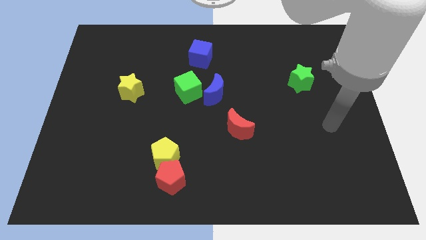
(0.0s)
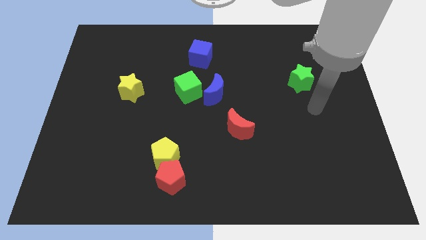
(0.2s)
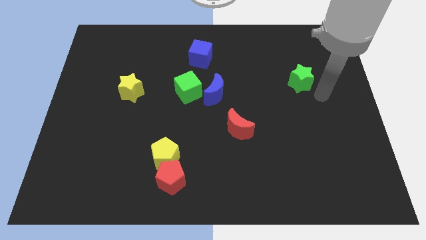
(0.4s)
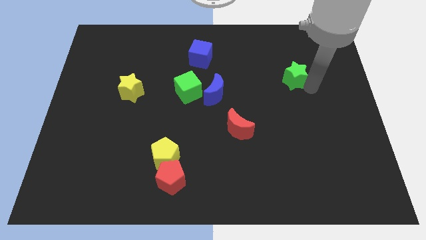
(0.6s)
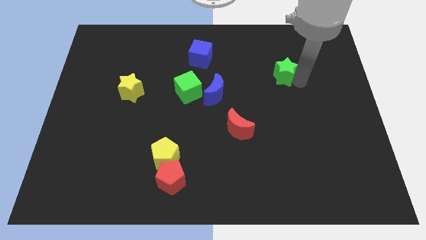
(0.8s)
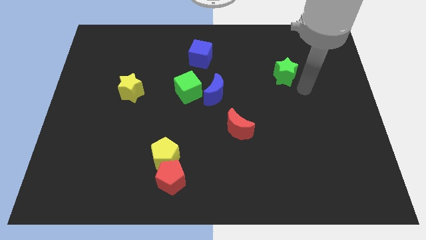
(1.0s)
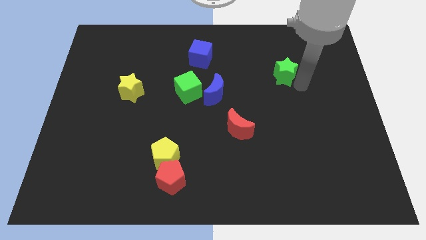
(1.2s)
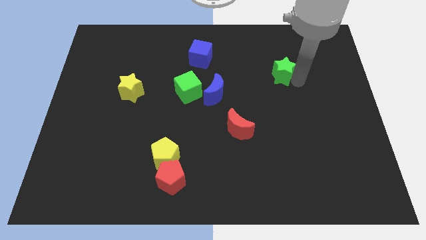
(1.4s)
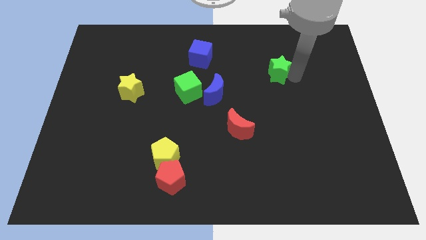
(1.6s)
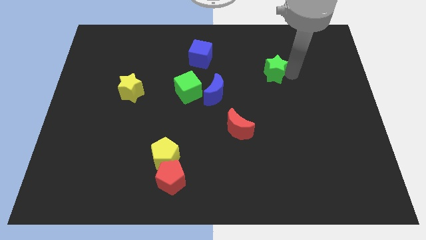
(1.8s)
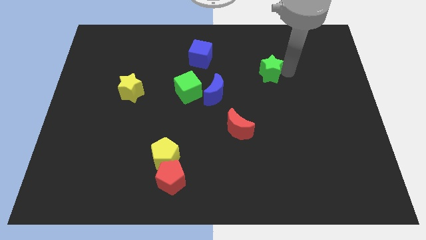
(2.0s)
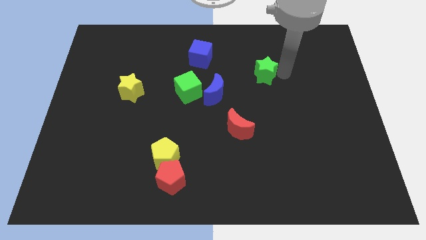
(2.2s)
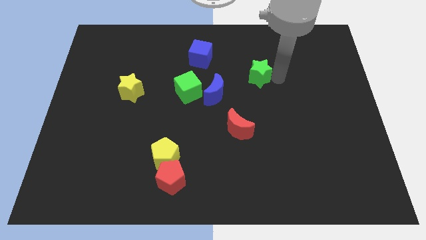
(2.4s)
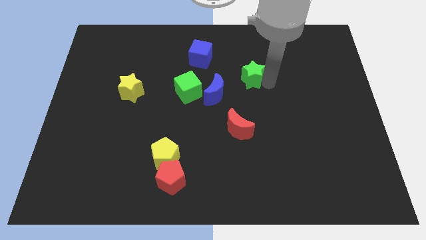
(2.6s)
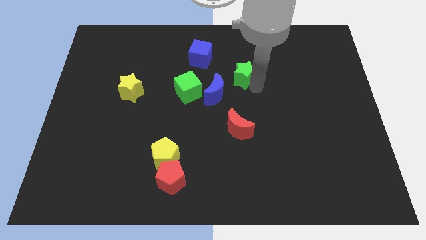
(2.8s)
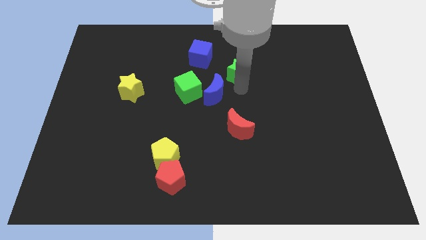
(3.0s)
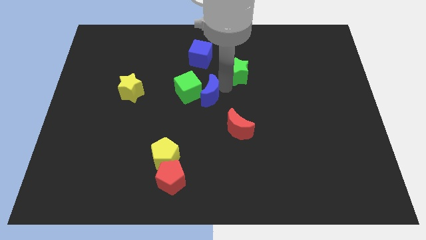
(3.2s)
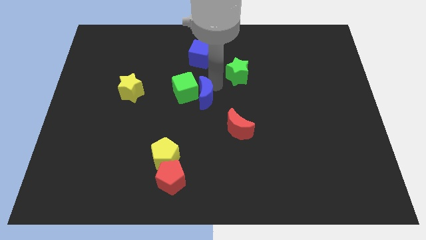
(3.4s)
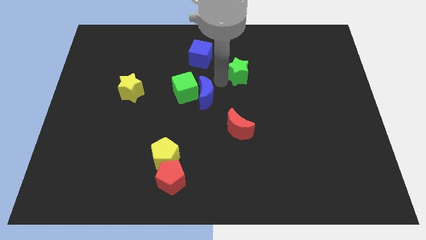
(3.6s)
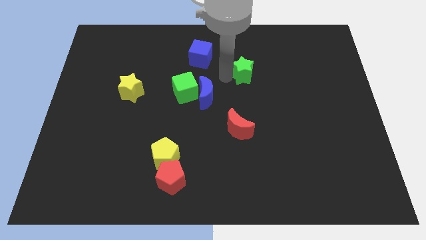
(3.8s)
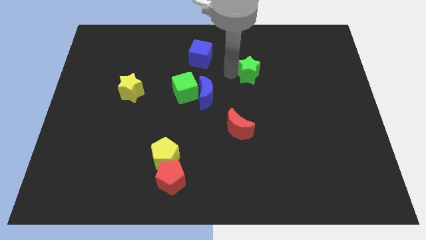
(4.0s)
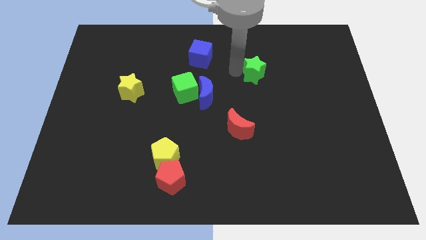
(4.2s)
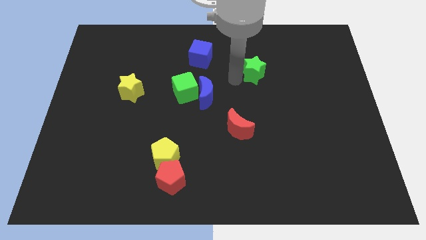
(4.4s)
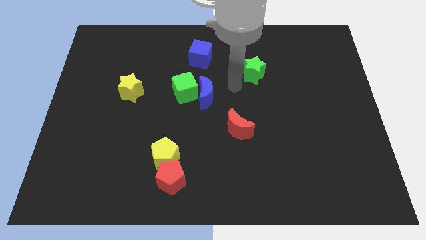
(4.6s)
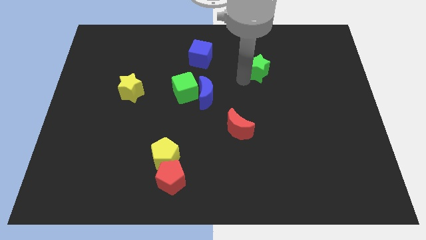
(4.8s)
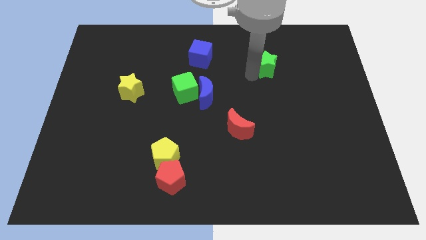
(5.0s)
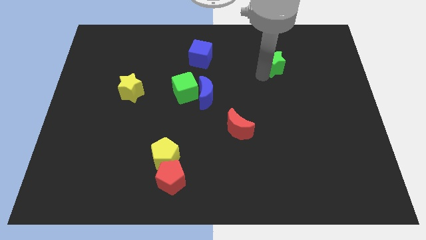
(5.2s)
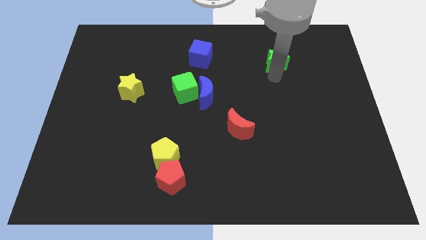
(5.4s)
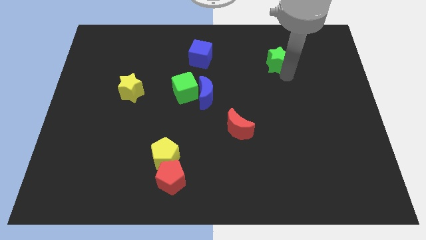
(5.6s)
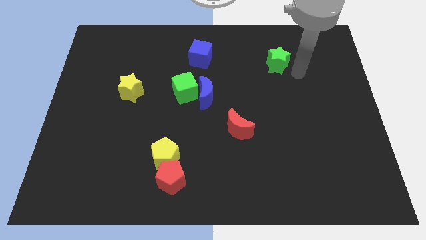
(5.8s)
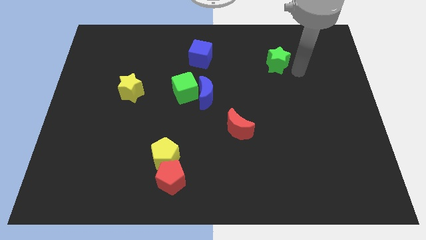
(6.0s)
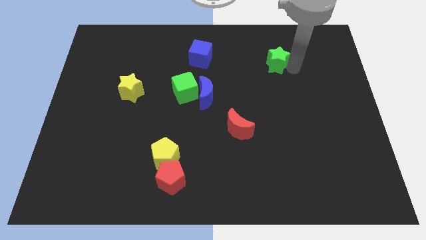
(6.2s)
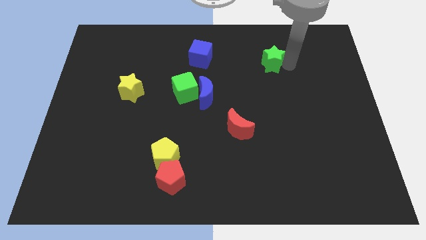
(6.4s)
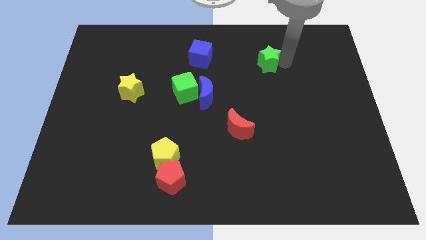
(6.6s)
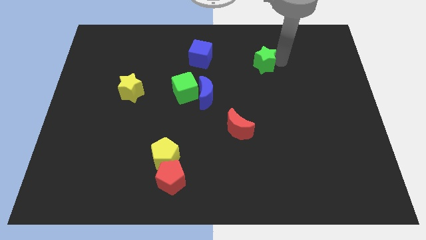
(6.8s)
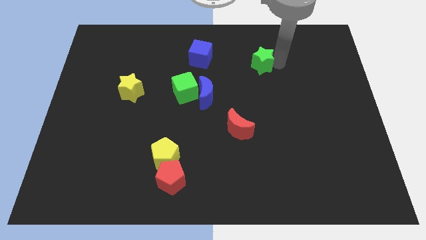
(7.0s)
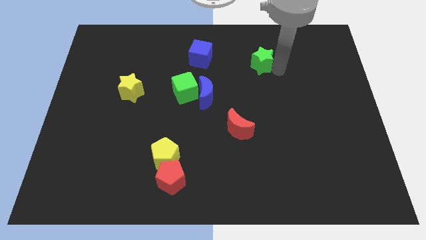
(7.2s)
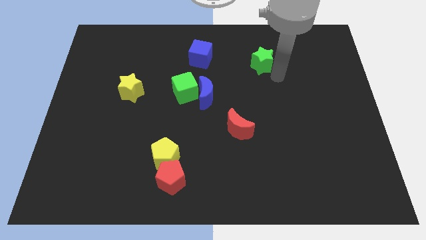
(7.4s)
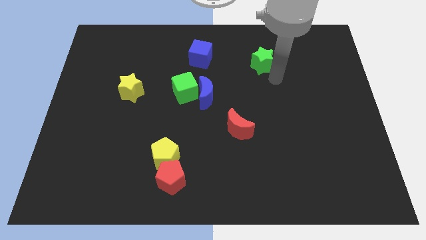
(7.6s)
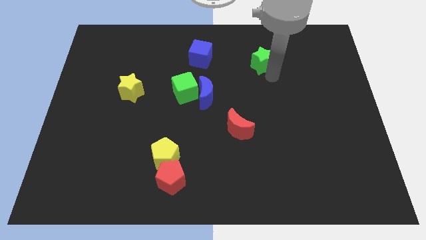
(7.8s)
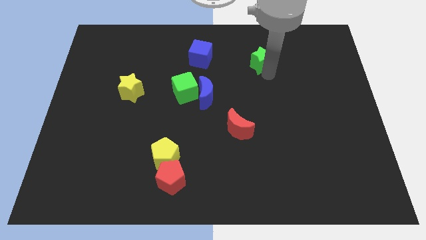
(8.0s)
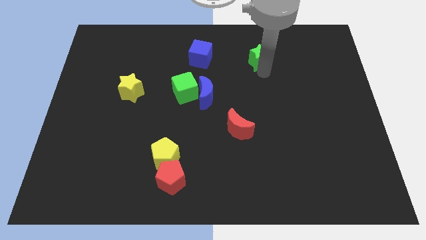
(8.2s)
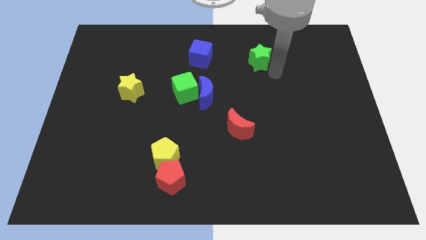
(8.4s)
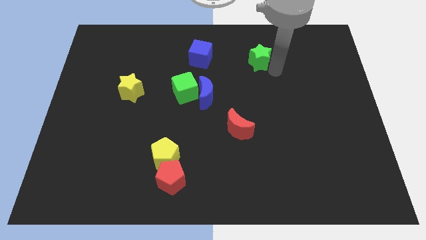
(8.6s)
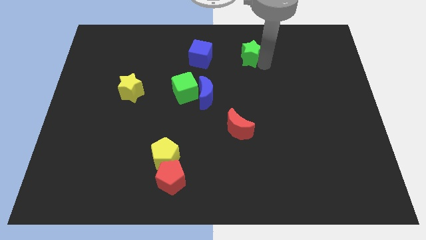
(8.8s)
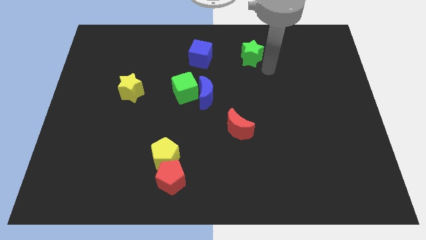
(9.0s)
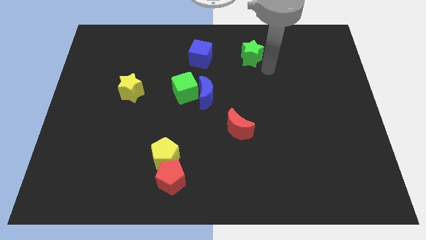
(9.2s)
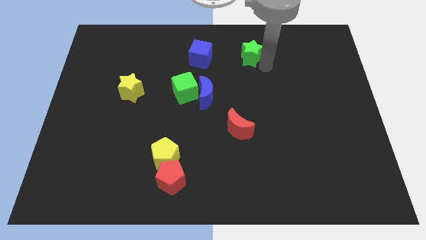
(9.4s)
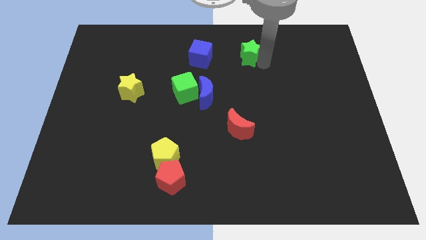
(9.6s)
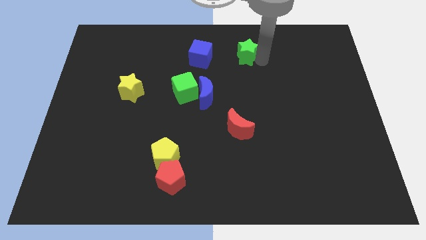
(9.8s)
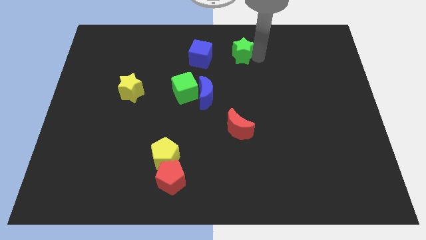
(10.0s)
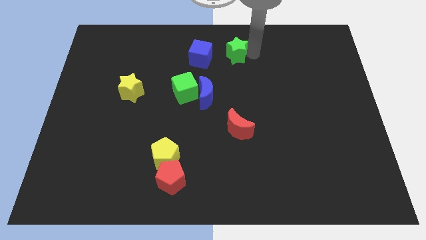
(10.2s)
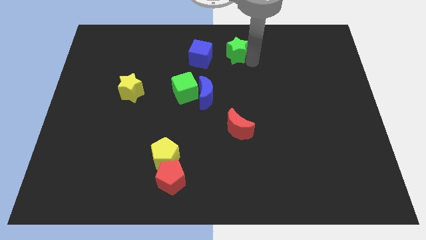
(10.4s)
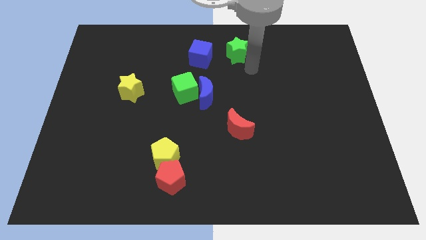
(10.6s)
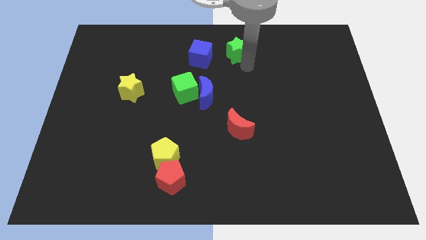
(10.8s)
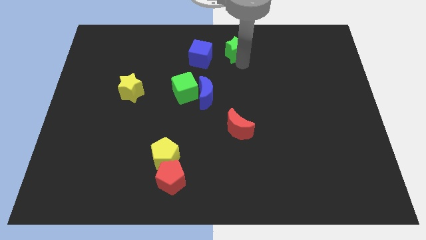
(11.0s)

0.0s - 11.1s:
slide the green star to the towards your base
